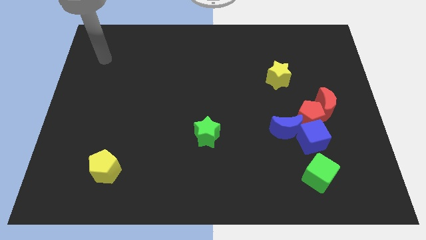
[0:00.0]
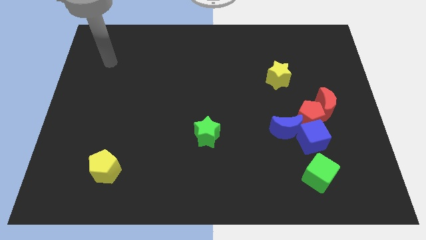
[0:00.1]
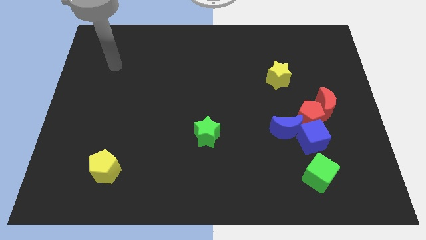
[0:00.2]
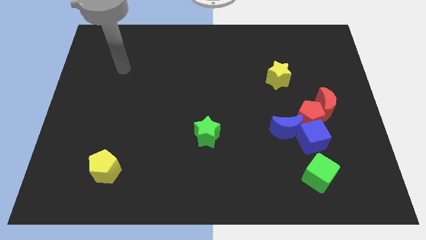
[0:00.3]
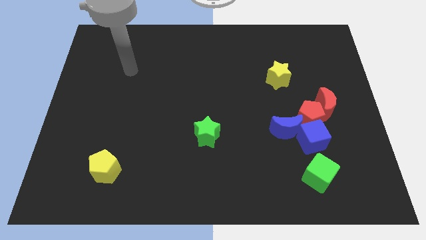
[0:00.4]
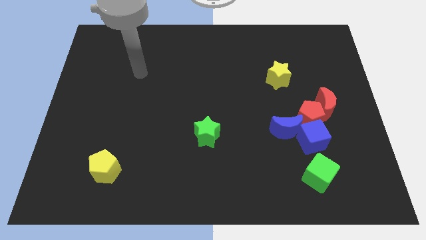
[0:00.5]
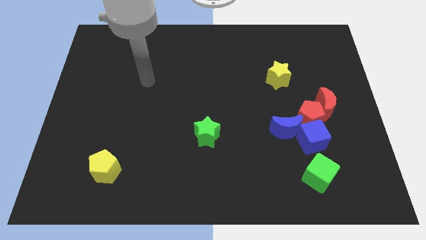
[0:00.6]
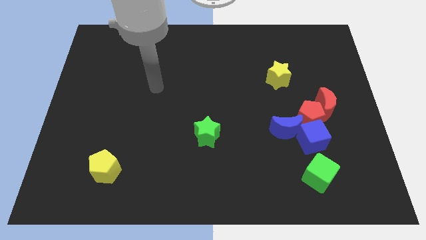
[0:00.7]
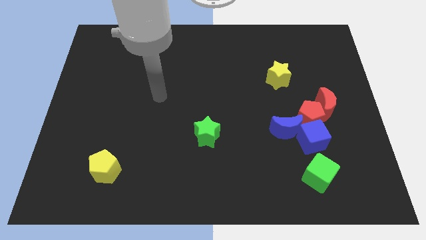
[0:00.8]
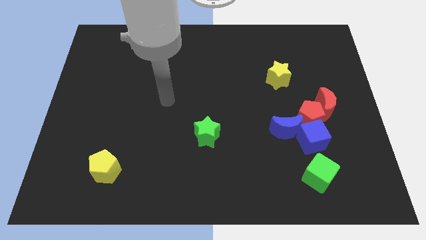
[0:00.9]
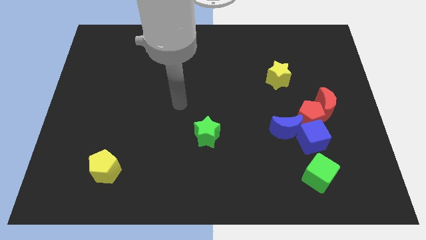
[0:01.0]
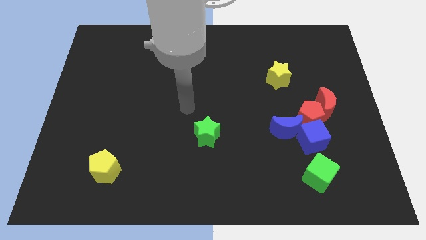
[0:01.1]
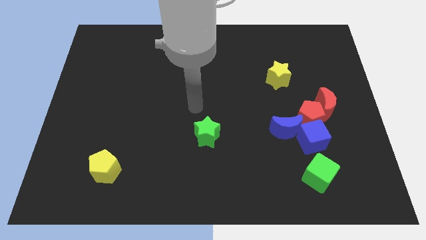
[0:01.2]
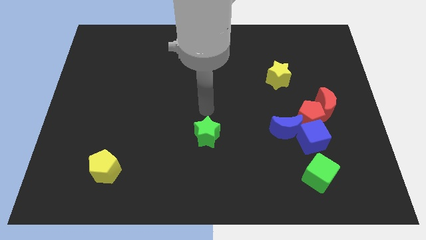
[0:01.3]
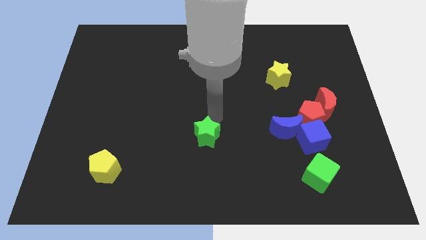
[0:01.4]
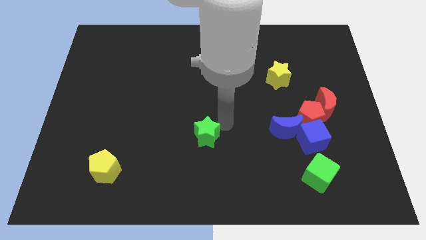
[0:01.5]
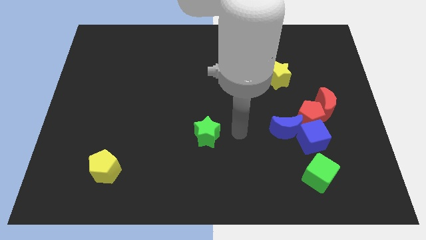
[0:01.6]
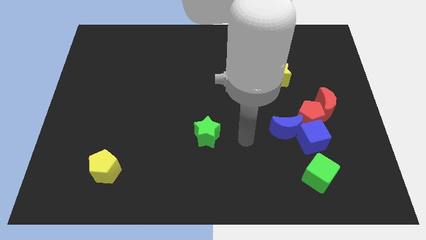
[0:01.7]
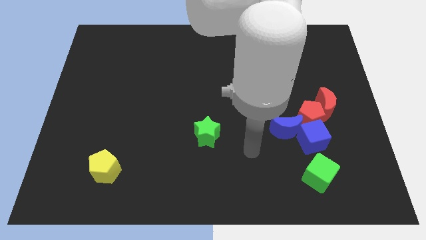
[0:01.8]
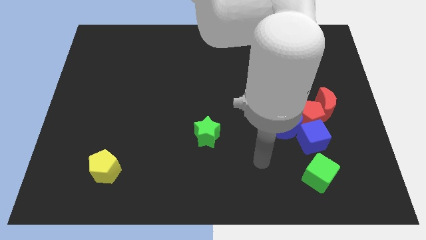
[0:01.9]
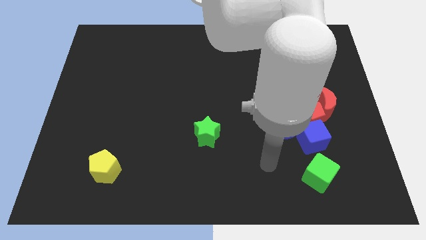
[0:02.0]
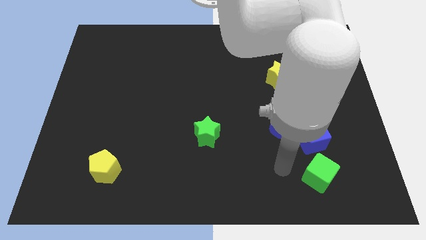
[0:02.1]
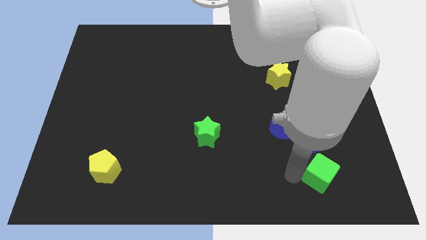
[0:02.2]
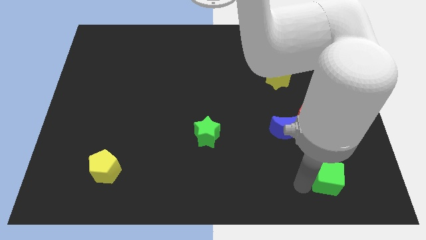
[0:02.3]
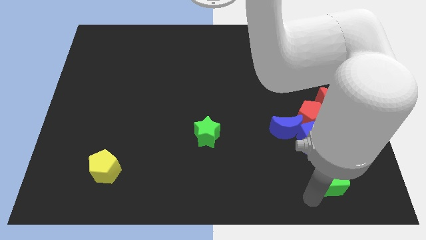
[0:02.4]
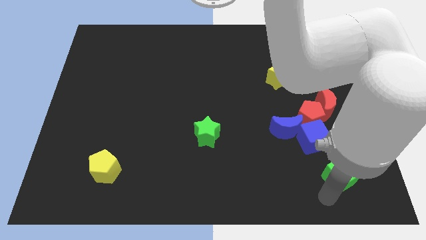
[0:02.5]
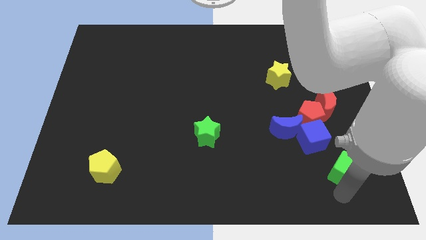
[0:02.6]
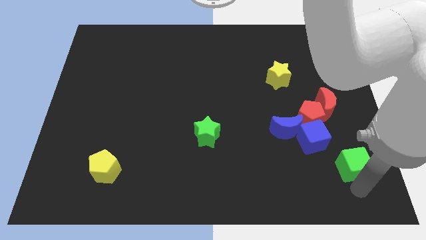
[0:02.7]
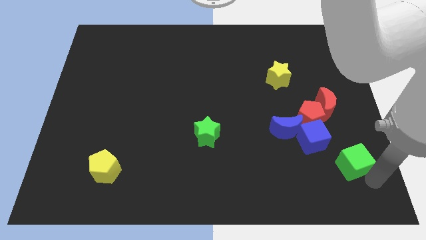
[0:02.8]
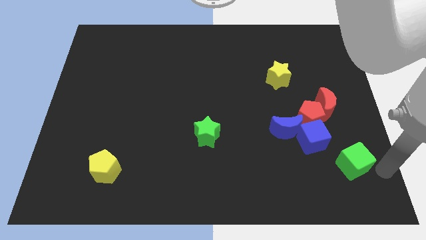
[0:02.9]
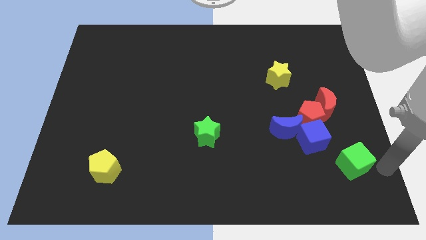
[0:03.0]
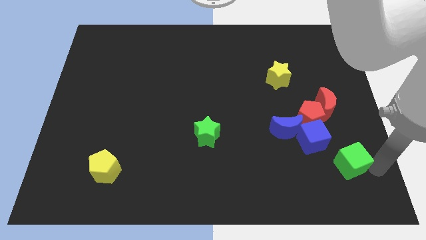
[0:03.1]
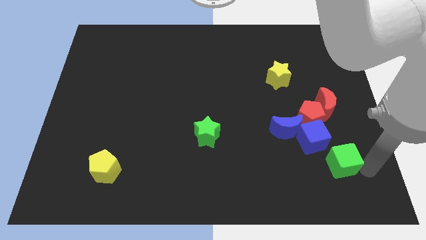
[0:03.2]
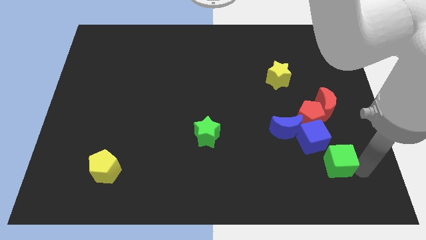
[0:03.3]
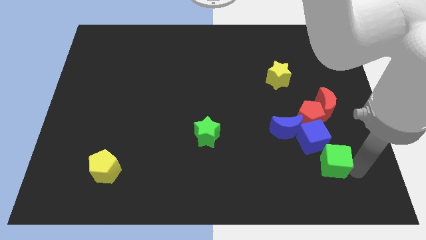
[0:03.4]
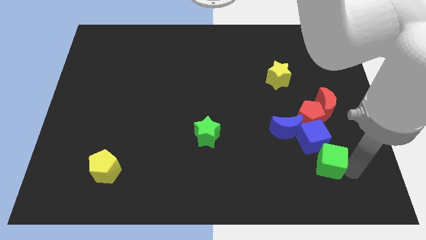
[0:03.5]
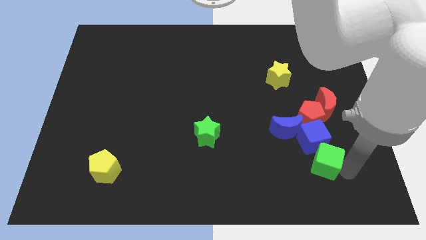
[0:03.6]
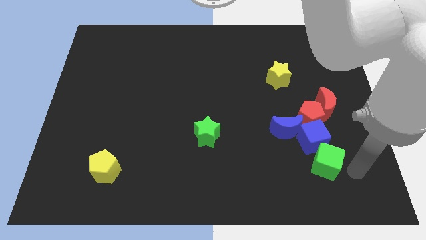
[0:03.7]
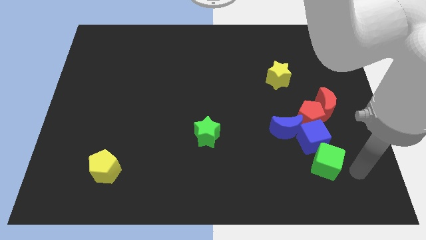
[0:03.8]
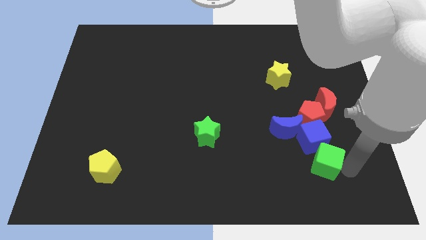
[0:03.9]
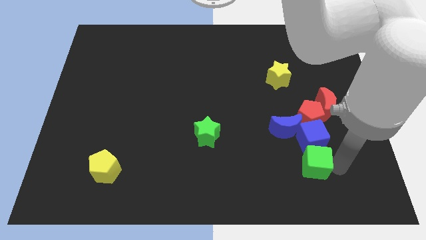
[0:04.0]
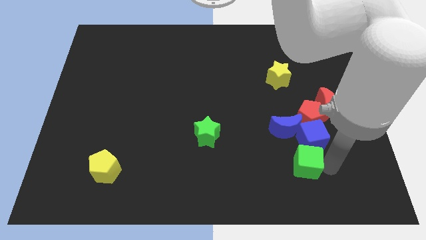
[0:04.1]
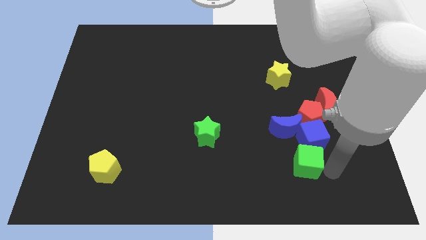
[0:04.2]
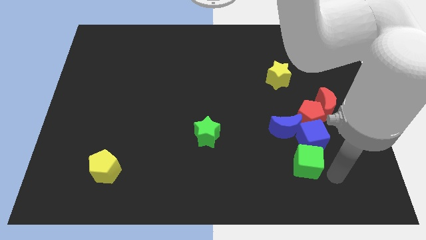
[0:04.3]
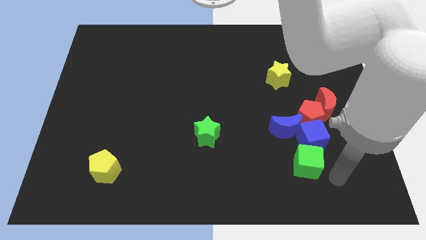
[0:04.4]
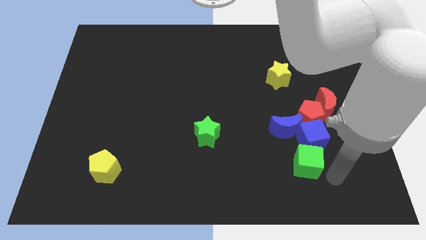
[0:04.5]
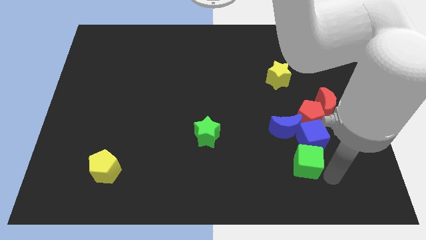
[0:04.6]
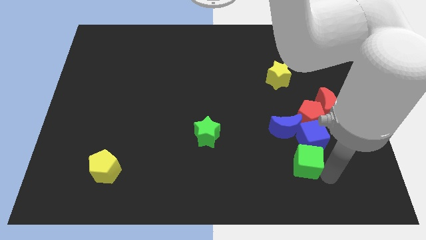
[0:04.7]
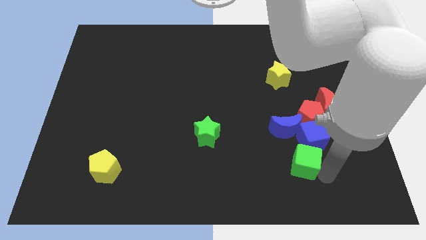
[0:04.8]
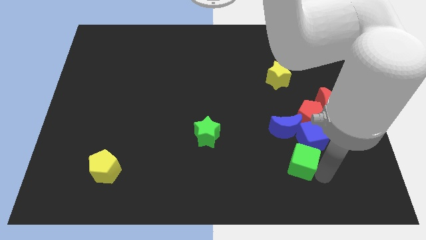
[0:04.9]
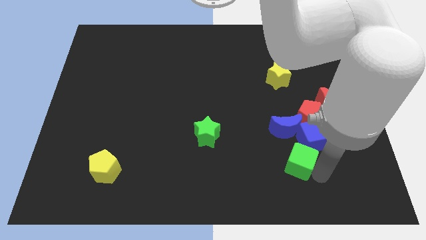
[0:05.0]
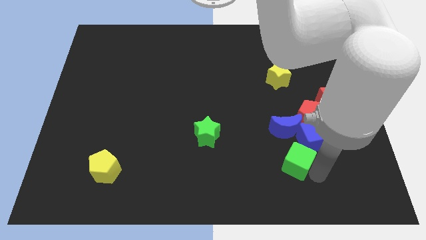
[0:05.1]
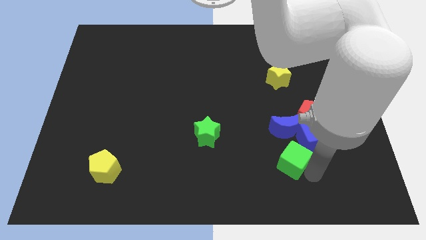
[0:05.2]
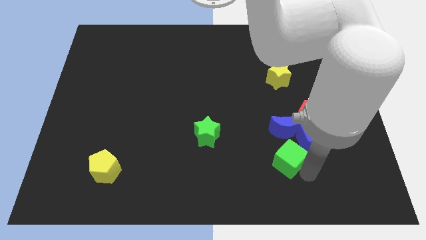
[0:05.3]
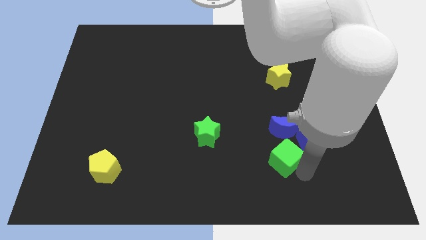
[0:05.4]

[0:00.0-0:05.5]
slightly push the green cube upwards and to the left

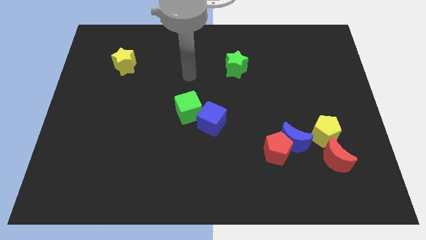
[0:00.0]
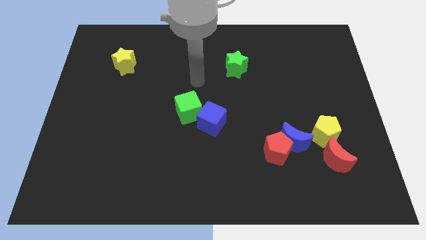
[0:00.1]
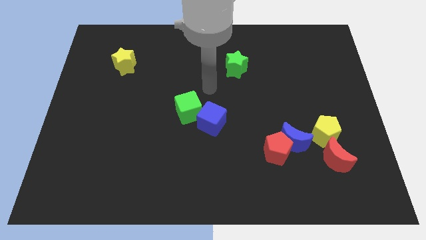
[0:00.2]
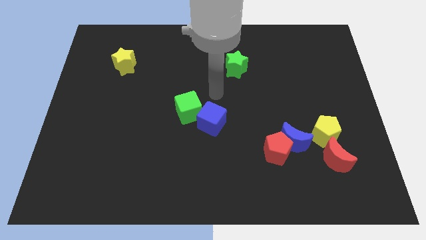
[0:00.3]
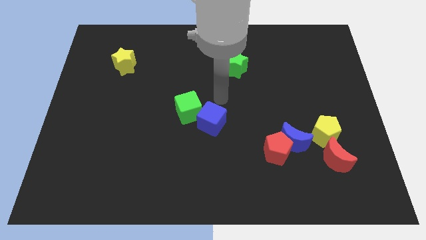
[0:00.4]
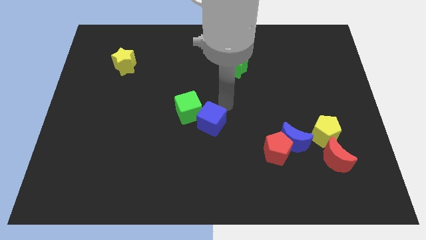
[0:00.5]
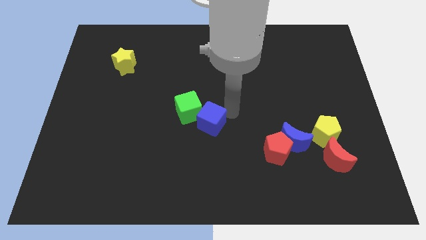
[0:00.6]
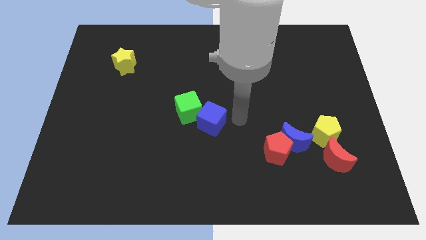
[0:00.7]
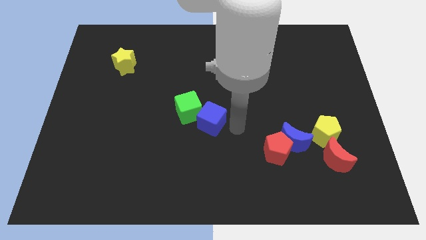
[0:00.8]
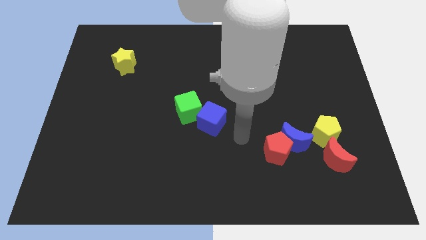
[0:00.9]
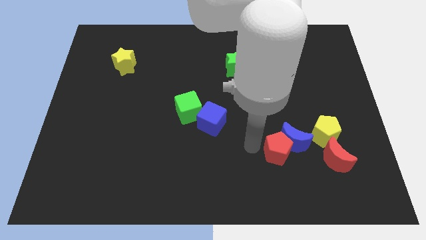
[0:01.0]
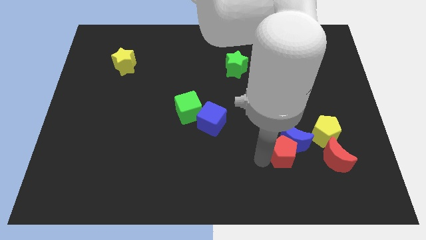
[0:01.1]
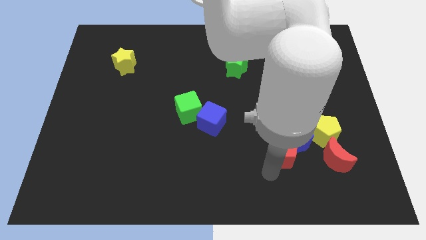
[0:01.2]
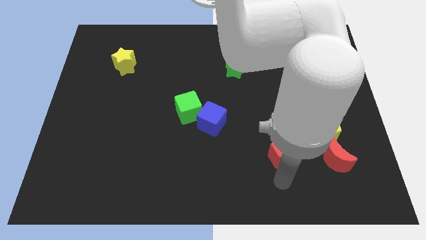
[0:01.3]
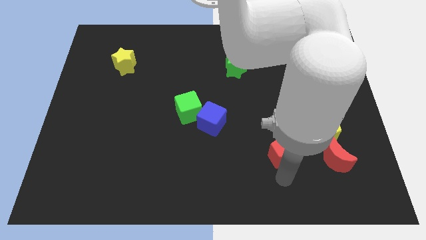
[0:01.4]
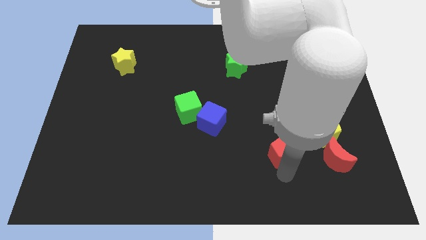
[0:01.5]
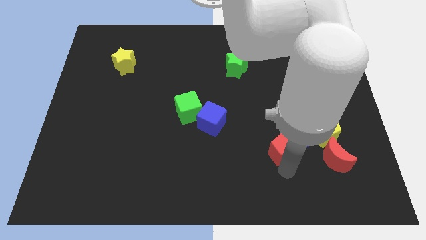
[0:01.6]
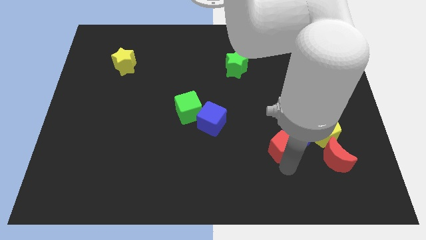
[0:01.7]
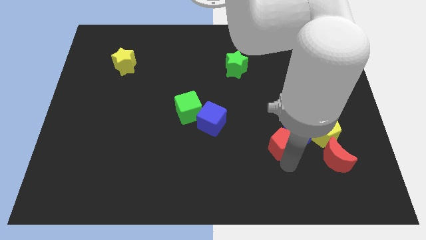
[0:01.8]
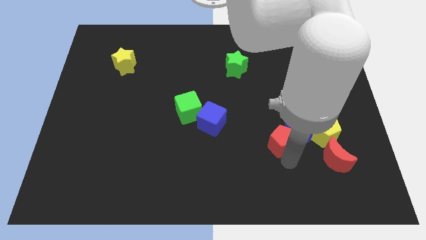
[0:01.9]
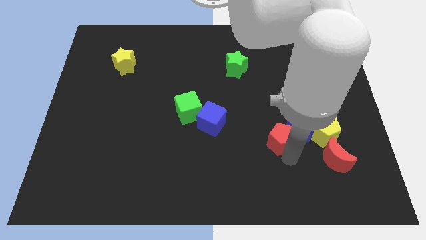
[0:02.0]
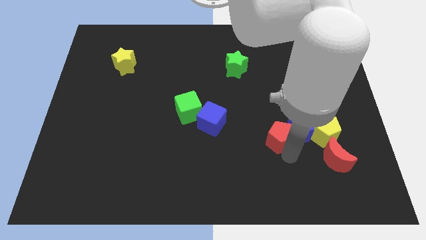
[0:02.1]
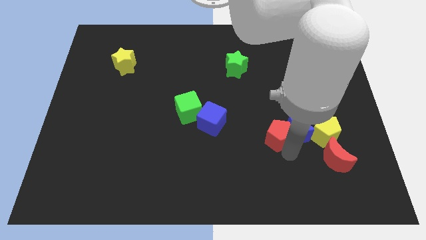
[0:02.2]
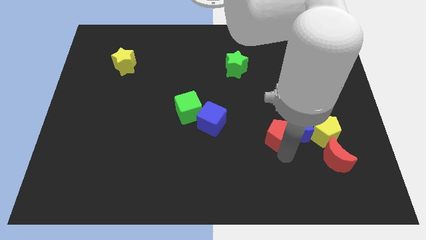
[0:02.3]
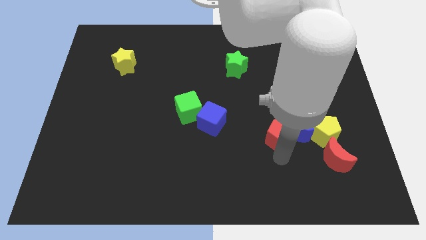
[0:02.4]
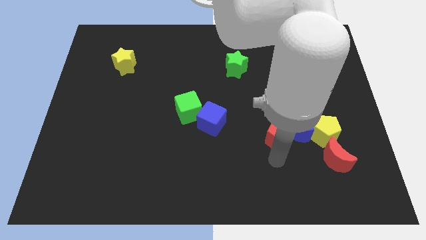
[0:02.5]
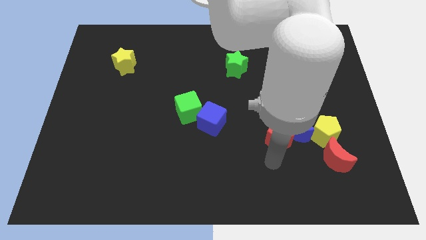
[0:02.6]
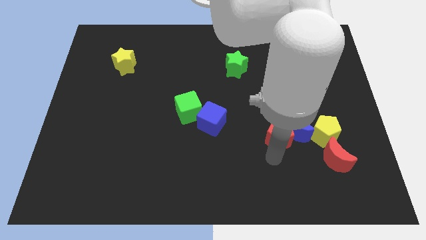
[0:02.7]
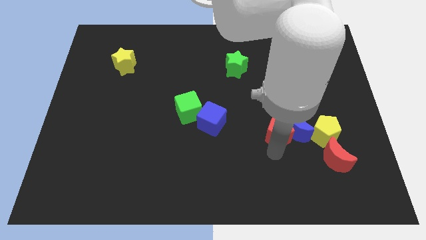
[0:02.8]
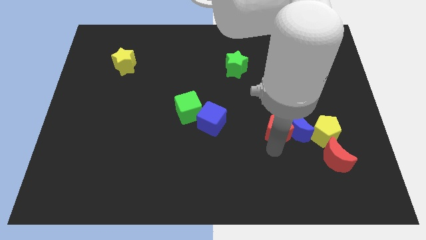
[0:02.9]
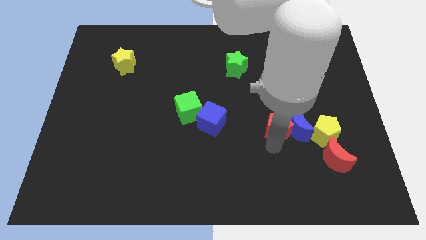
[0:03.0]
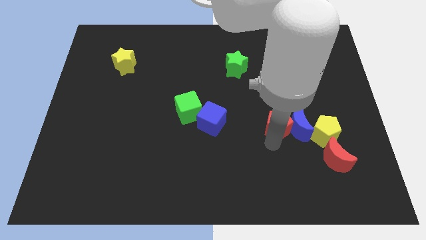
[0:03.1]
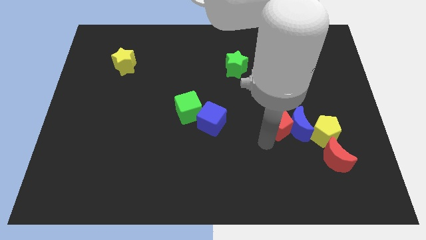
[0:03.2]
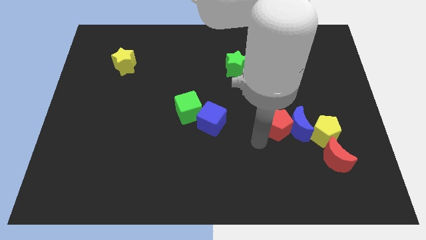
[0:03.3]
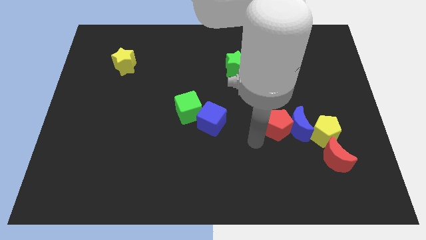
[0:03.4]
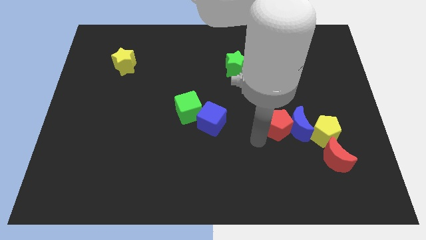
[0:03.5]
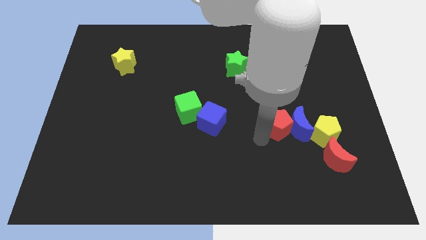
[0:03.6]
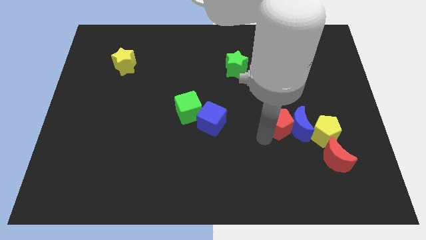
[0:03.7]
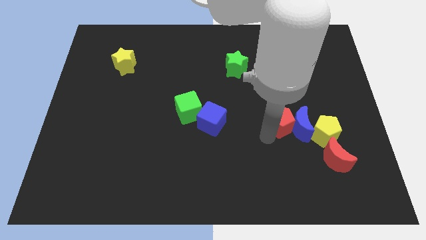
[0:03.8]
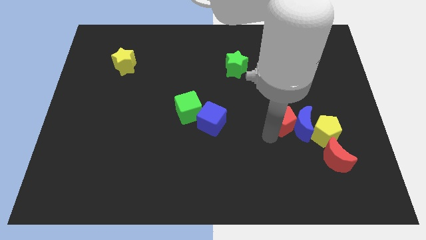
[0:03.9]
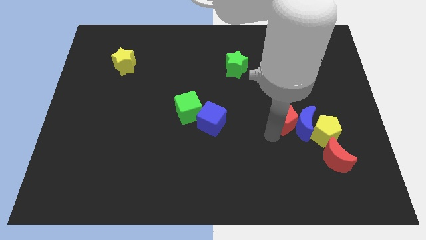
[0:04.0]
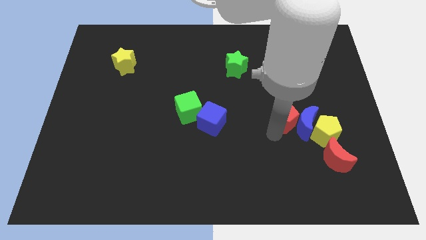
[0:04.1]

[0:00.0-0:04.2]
push the red pentagon up and then right a bit
